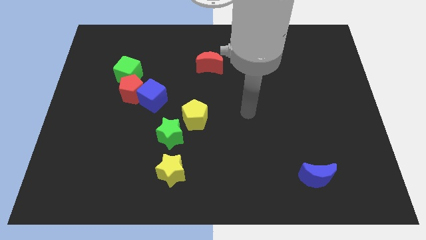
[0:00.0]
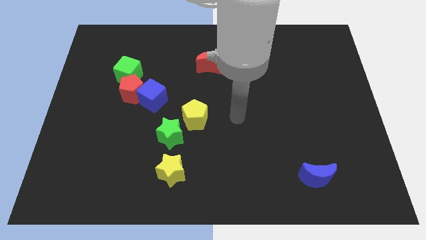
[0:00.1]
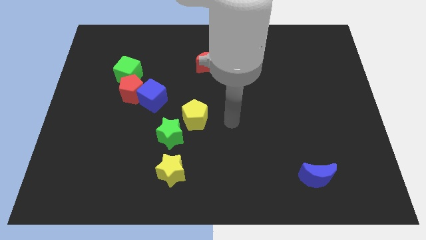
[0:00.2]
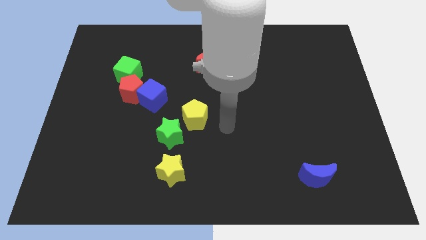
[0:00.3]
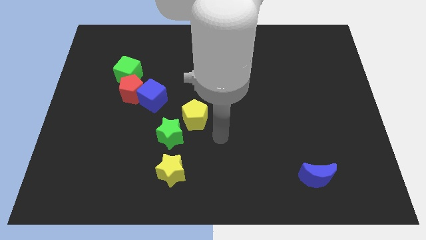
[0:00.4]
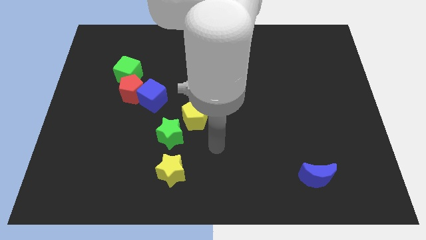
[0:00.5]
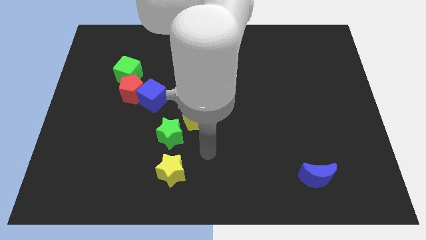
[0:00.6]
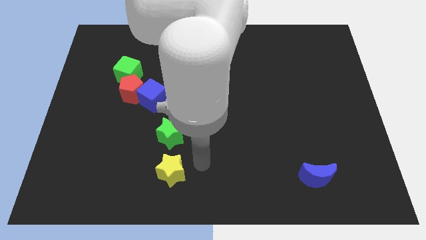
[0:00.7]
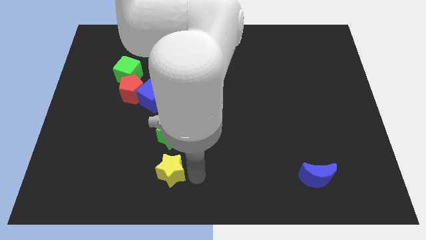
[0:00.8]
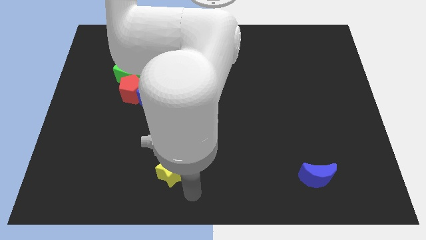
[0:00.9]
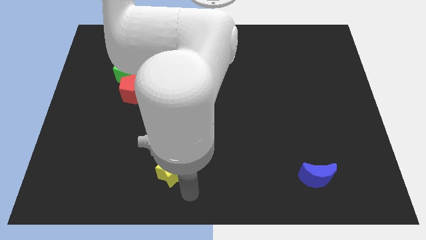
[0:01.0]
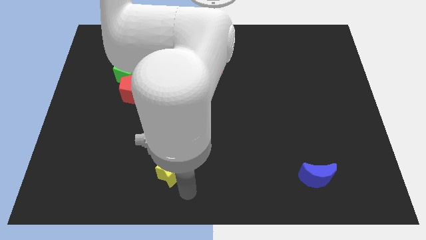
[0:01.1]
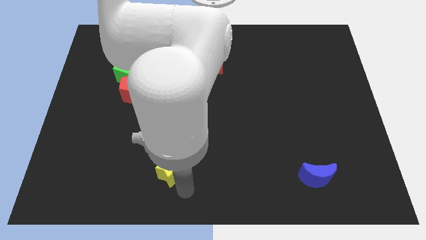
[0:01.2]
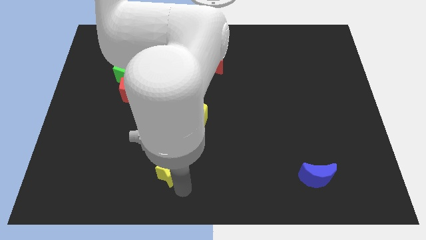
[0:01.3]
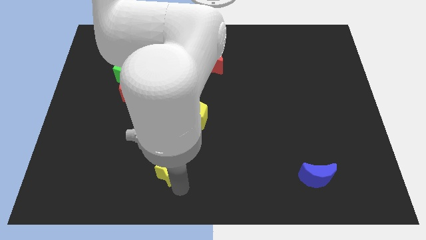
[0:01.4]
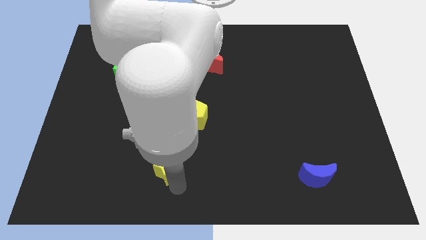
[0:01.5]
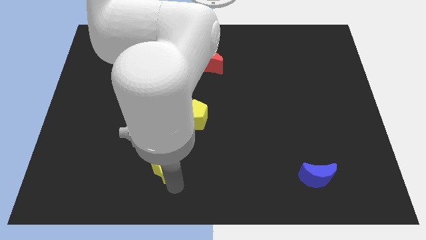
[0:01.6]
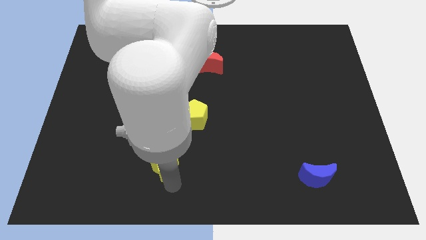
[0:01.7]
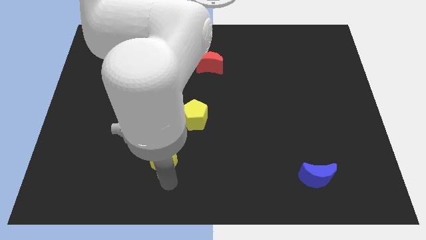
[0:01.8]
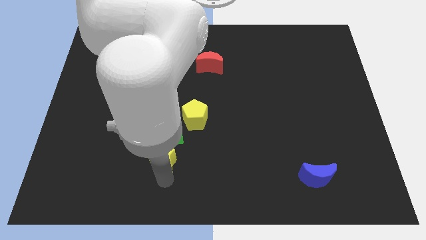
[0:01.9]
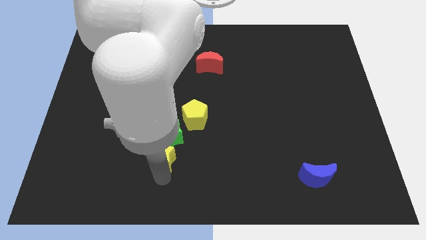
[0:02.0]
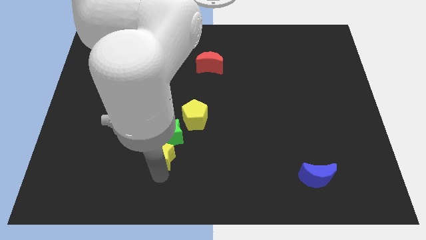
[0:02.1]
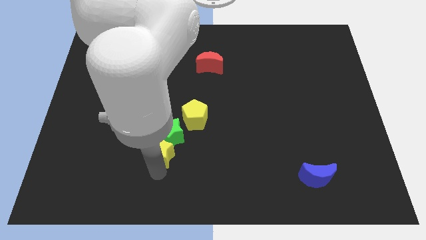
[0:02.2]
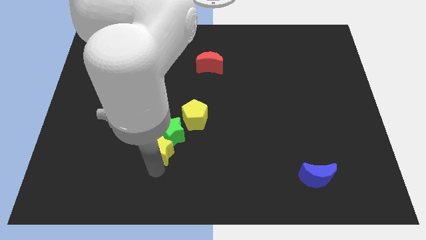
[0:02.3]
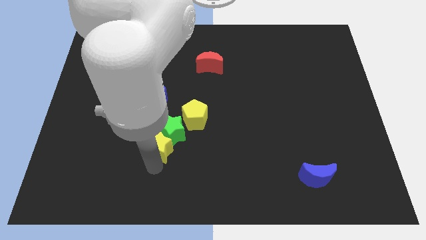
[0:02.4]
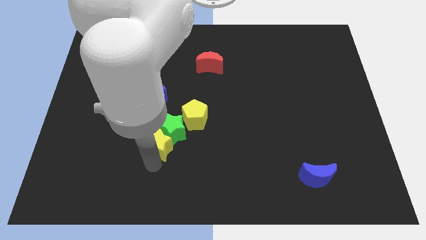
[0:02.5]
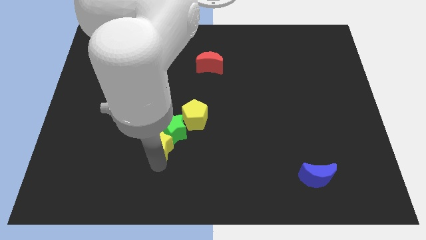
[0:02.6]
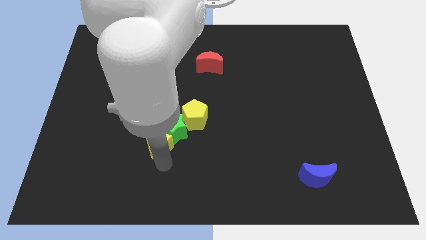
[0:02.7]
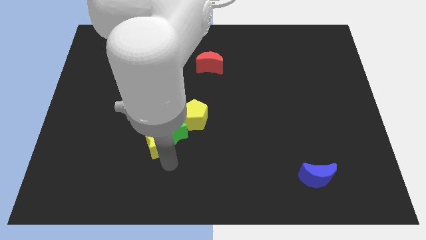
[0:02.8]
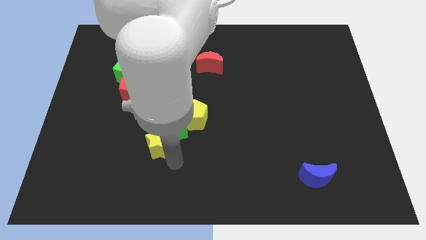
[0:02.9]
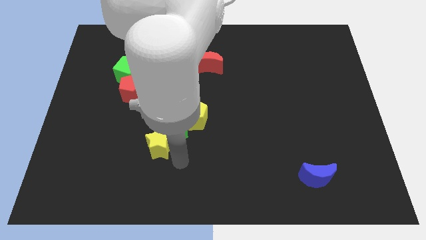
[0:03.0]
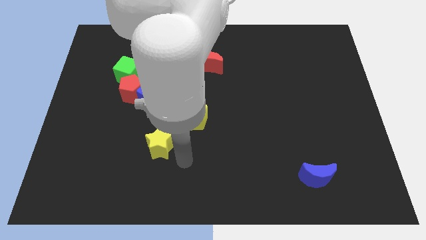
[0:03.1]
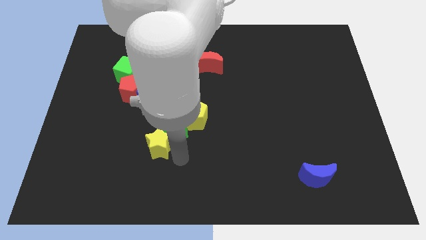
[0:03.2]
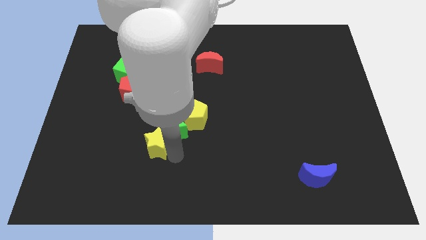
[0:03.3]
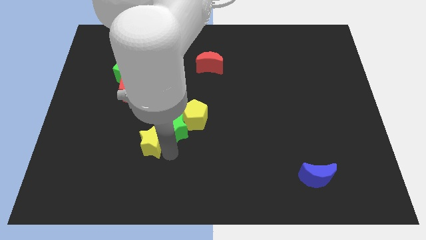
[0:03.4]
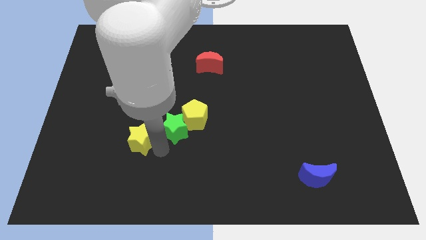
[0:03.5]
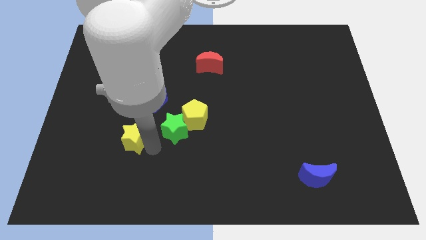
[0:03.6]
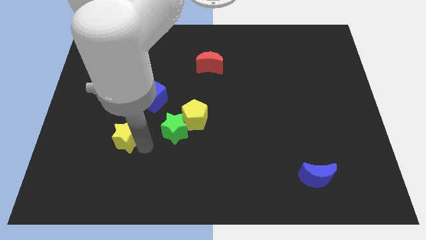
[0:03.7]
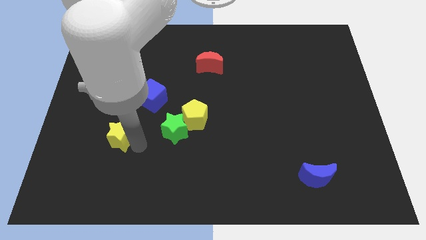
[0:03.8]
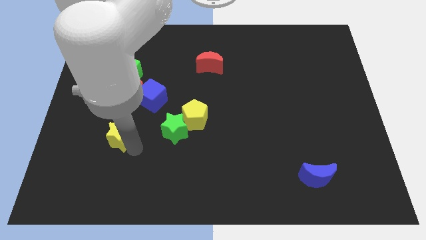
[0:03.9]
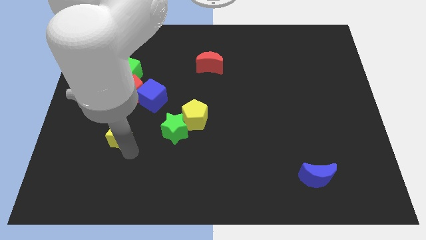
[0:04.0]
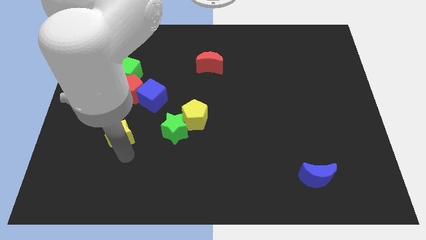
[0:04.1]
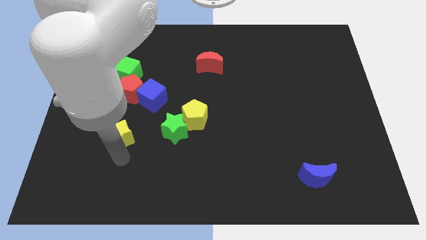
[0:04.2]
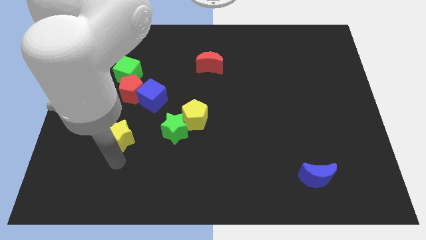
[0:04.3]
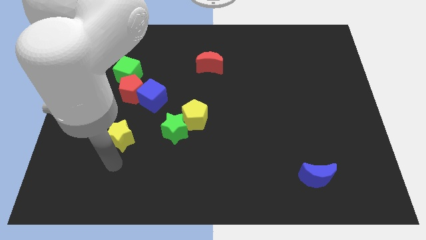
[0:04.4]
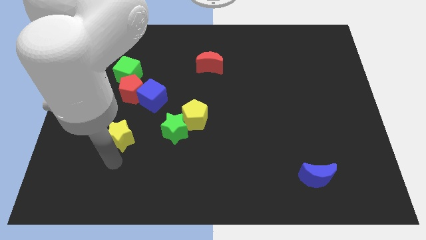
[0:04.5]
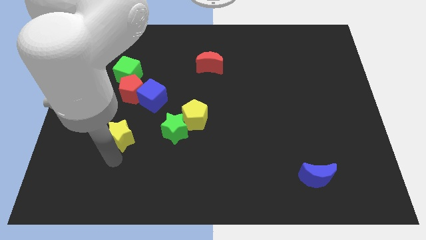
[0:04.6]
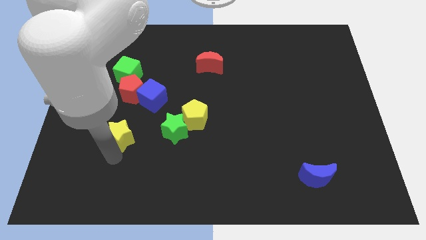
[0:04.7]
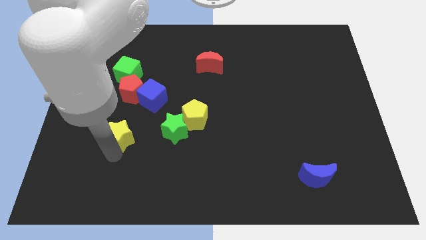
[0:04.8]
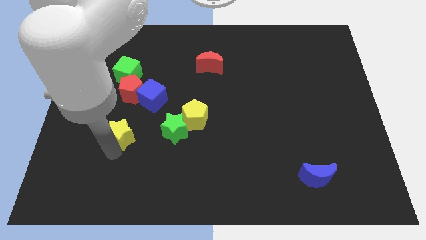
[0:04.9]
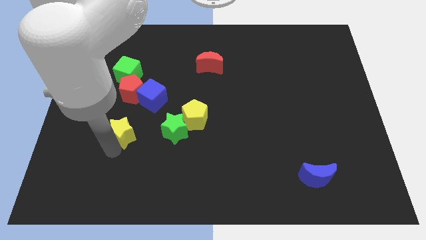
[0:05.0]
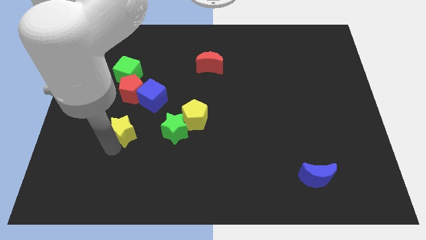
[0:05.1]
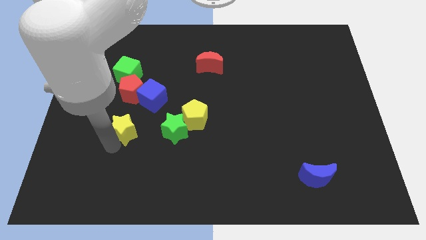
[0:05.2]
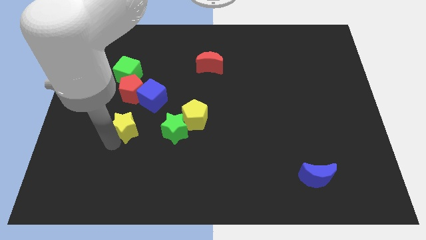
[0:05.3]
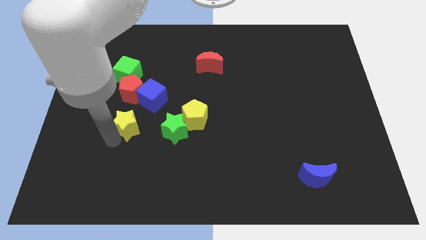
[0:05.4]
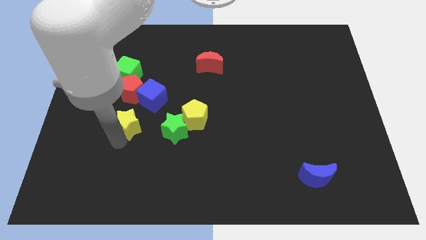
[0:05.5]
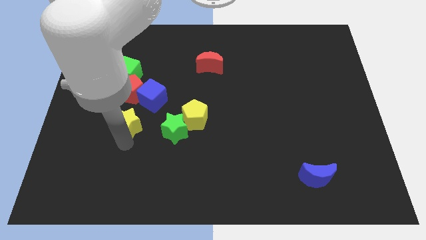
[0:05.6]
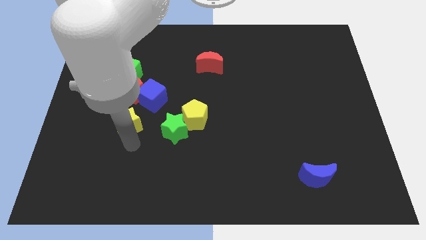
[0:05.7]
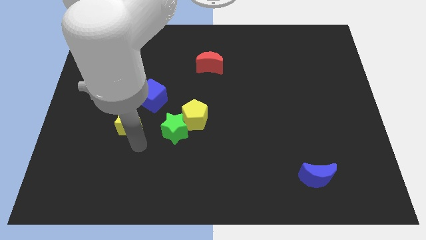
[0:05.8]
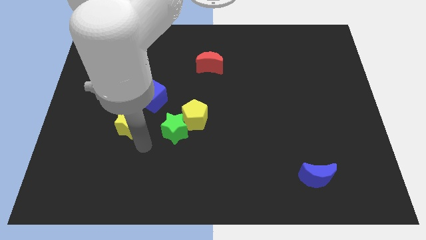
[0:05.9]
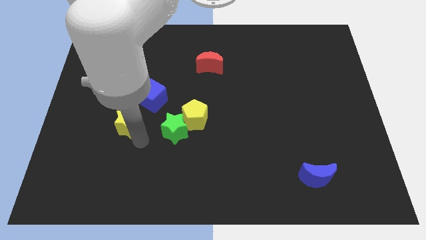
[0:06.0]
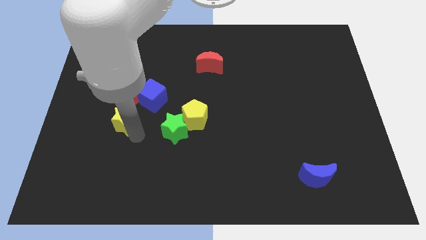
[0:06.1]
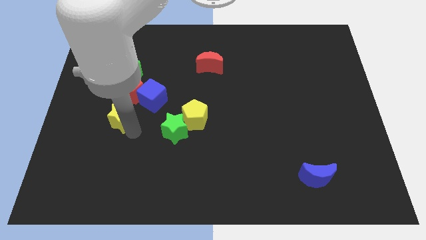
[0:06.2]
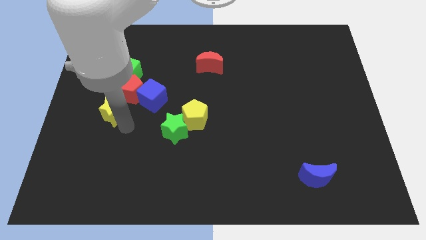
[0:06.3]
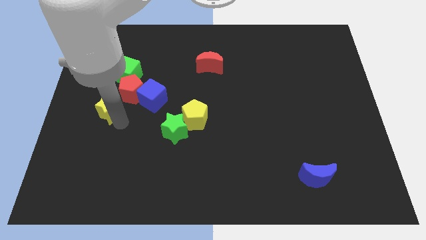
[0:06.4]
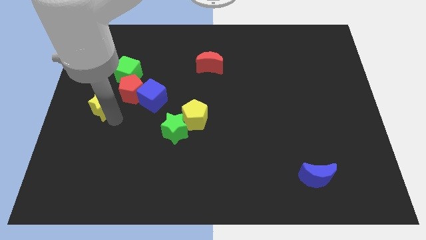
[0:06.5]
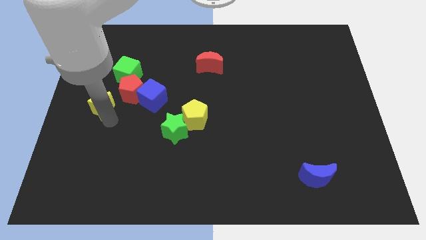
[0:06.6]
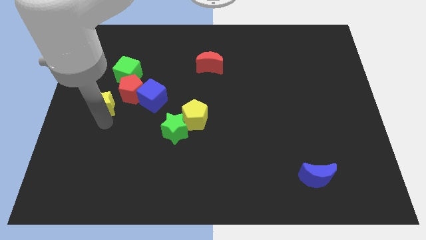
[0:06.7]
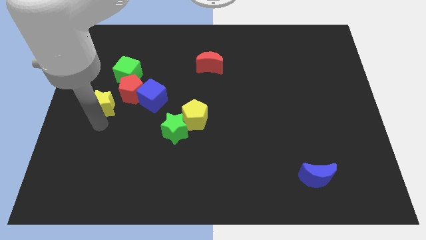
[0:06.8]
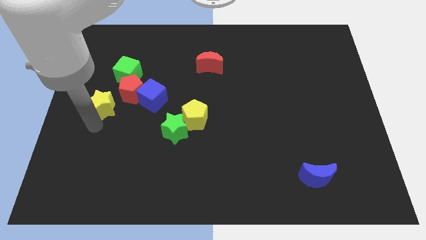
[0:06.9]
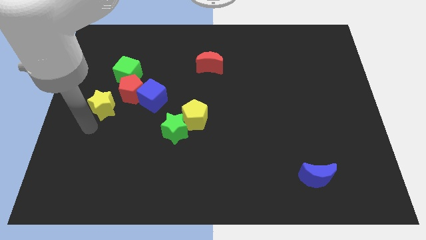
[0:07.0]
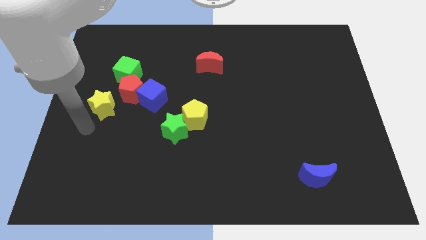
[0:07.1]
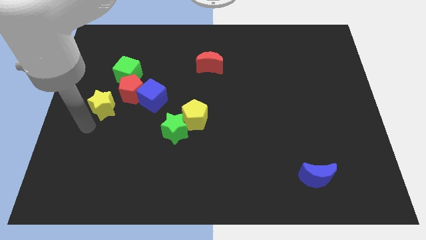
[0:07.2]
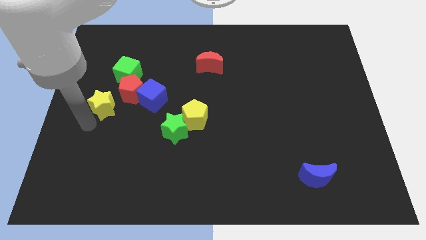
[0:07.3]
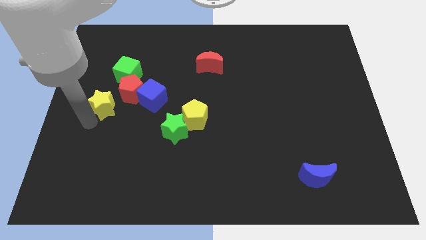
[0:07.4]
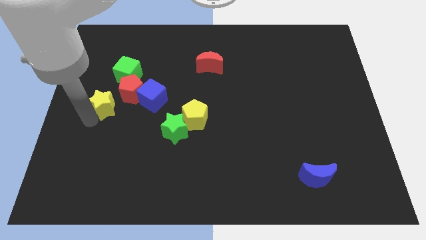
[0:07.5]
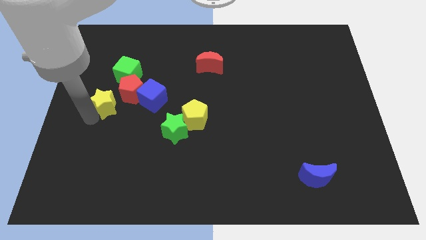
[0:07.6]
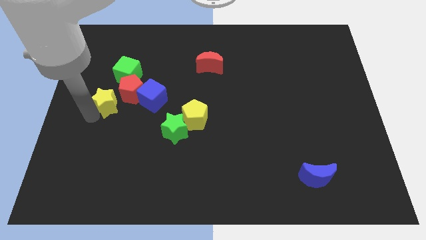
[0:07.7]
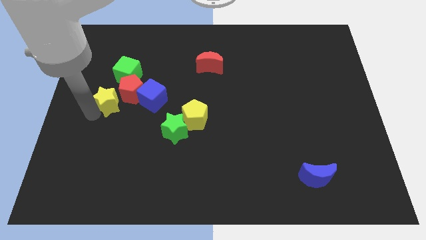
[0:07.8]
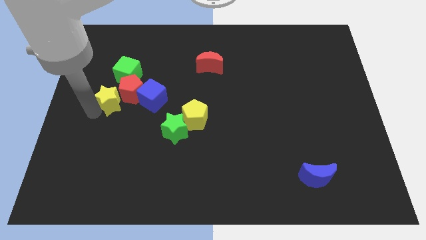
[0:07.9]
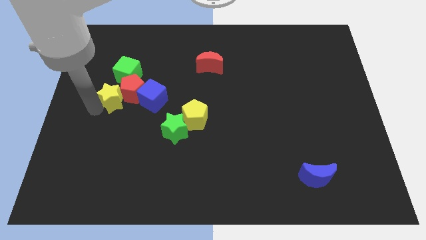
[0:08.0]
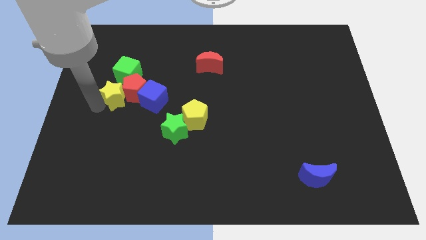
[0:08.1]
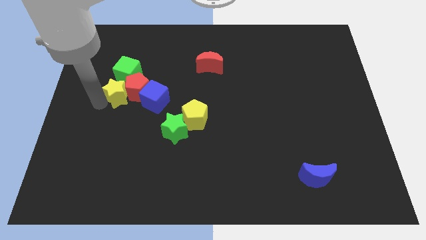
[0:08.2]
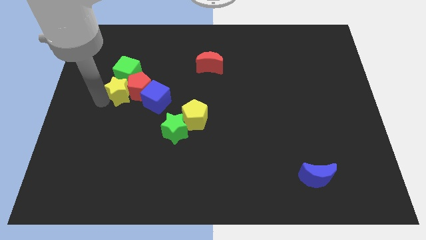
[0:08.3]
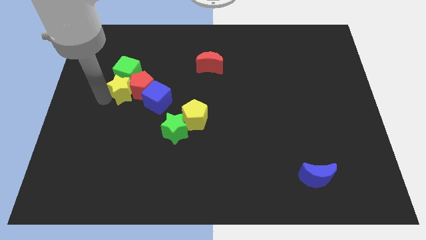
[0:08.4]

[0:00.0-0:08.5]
slide the yellow star to the green cube
